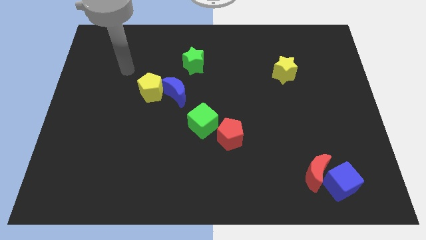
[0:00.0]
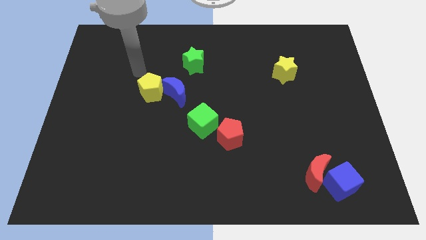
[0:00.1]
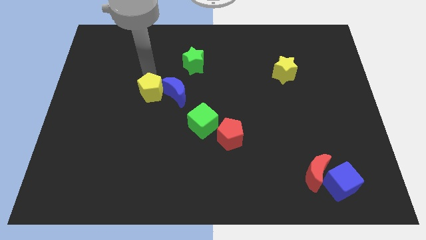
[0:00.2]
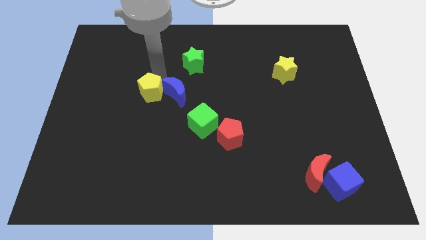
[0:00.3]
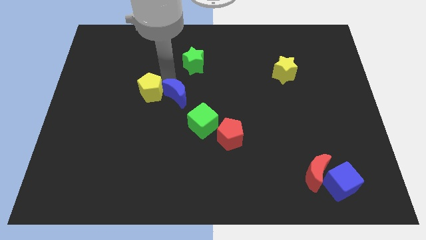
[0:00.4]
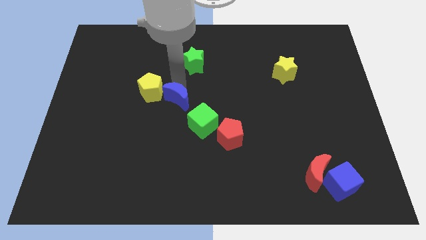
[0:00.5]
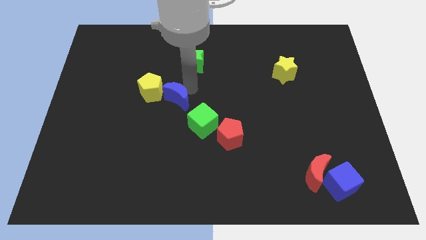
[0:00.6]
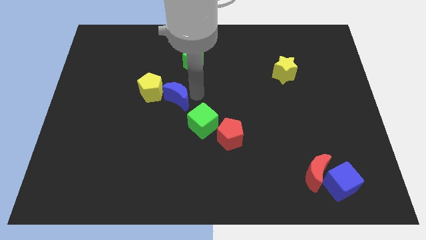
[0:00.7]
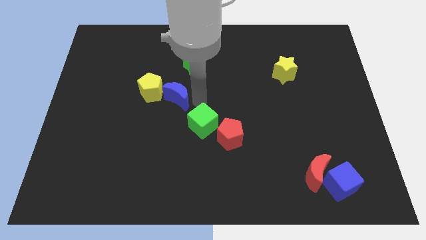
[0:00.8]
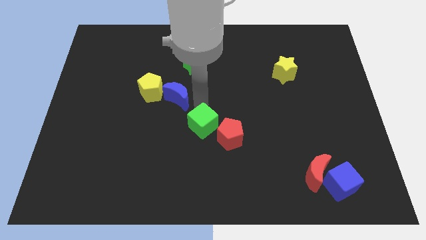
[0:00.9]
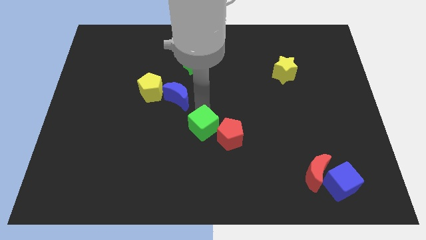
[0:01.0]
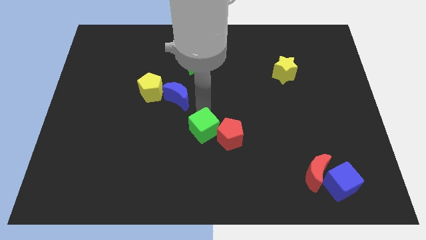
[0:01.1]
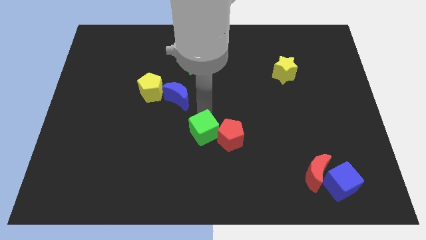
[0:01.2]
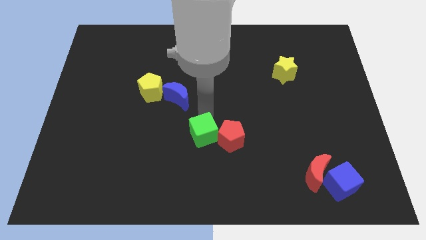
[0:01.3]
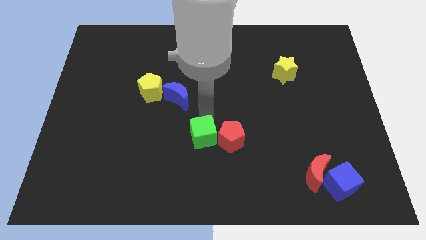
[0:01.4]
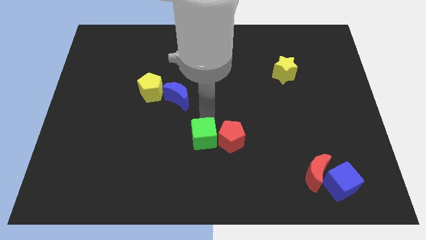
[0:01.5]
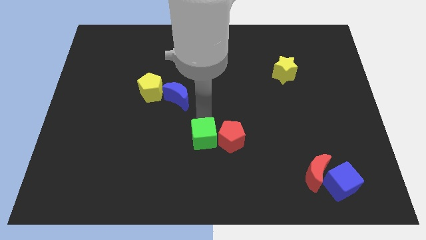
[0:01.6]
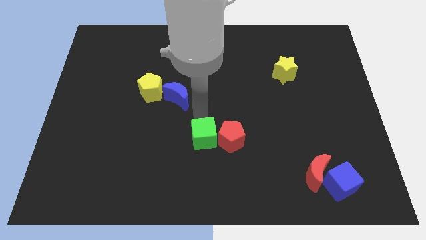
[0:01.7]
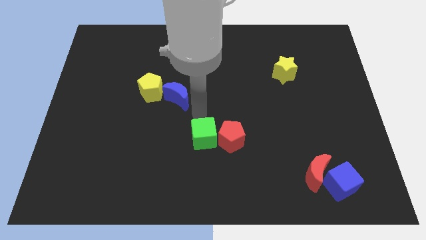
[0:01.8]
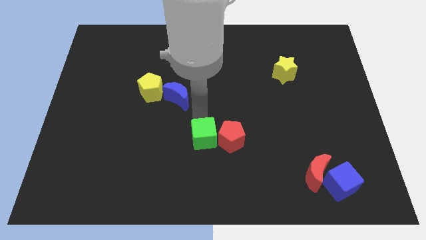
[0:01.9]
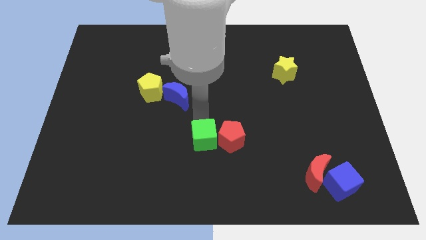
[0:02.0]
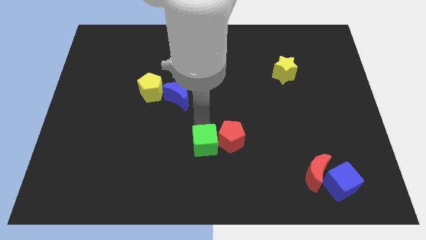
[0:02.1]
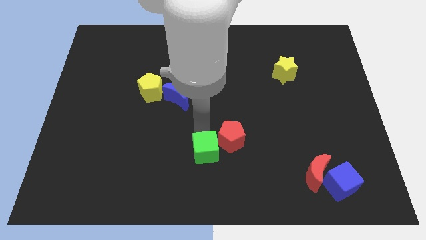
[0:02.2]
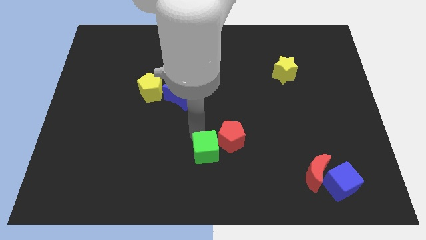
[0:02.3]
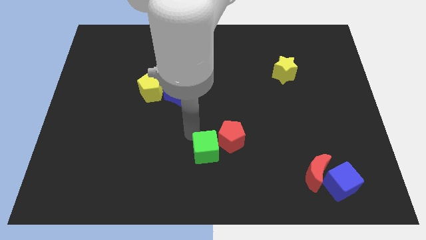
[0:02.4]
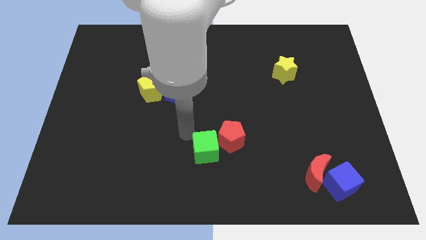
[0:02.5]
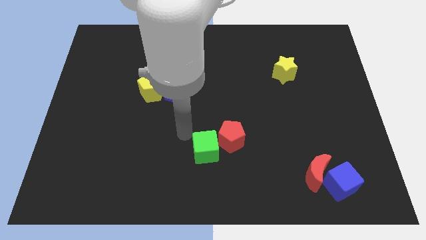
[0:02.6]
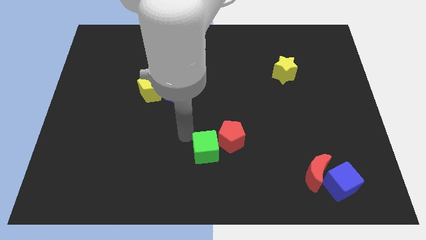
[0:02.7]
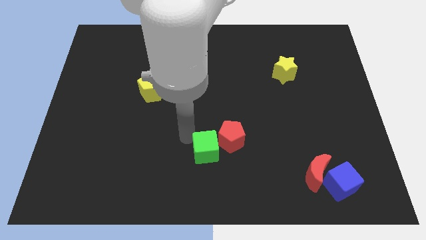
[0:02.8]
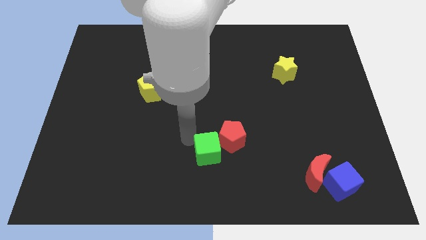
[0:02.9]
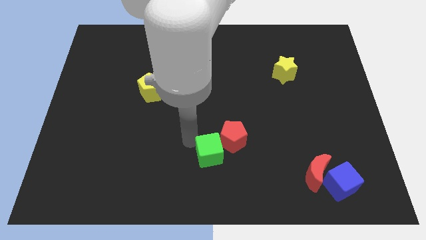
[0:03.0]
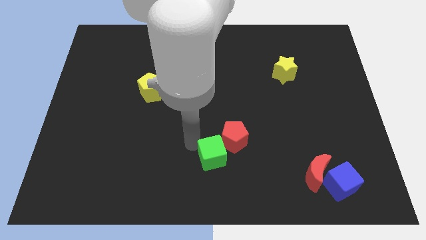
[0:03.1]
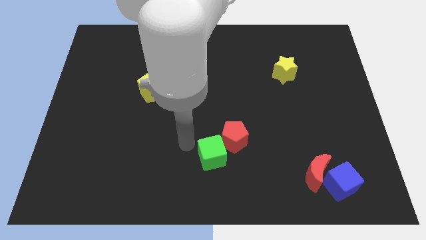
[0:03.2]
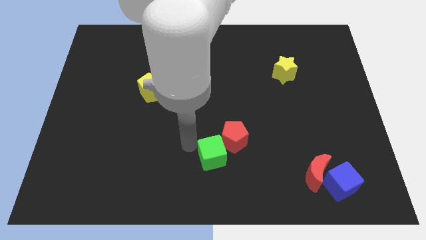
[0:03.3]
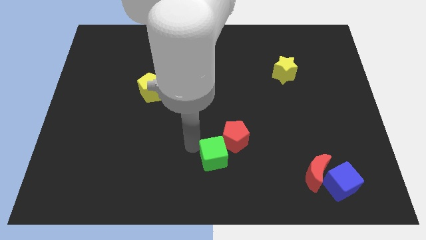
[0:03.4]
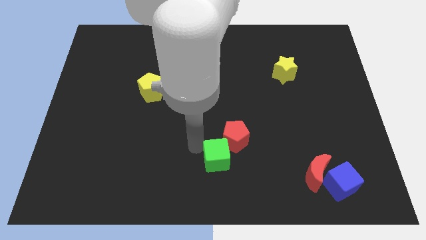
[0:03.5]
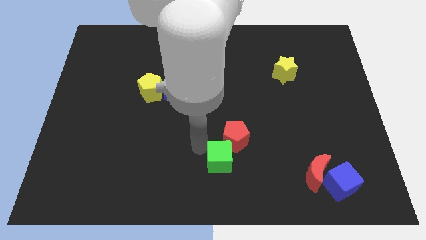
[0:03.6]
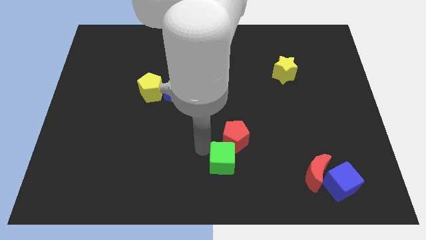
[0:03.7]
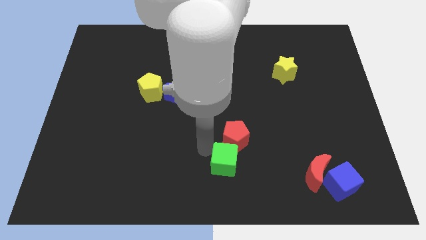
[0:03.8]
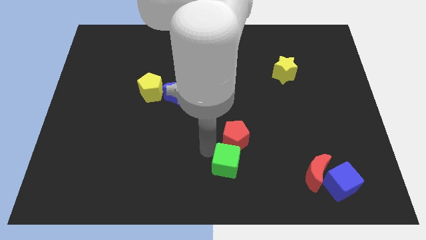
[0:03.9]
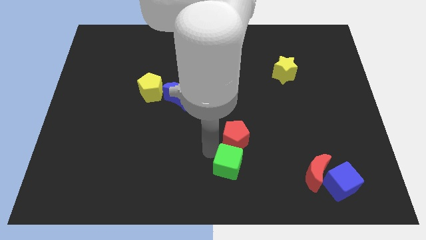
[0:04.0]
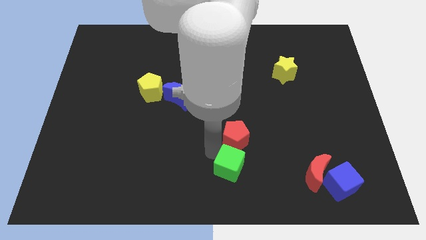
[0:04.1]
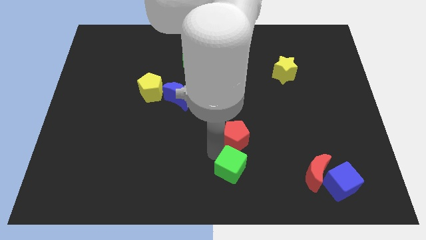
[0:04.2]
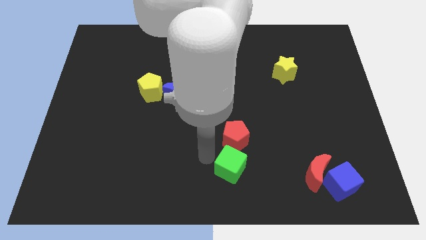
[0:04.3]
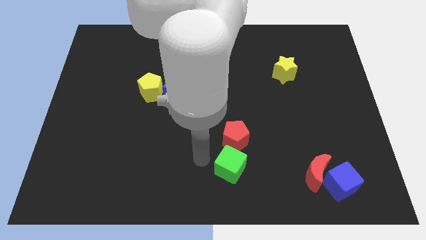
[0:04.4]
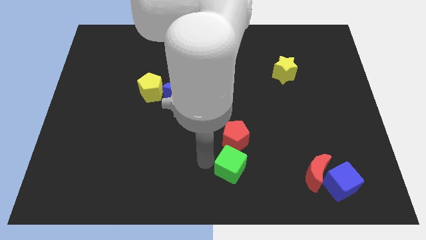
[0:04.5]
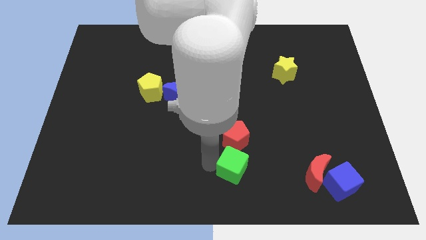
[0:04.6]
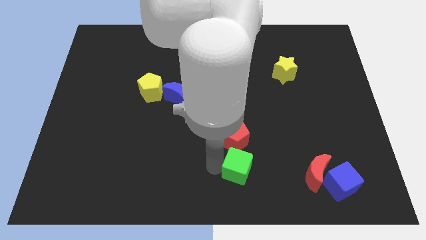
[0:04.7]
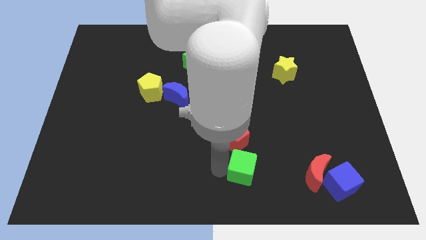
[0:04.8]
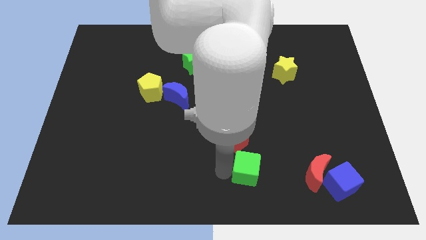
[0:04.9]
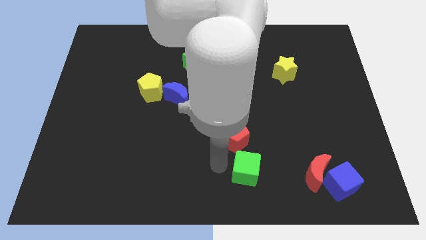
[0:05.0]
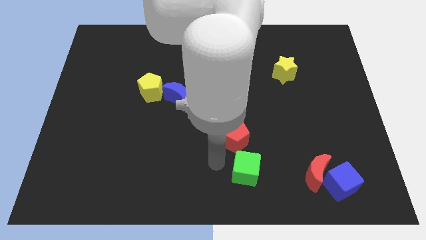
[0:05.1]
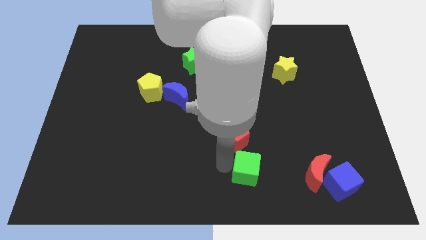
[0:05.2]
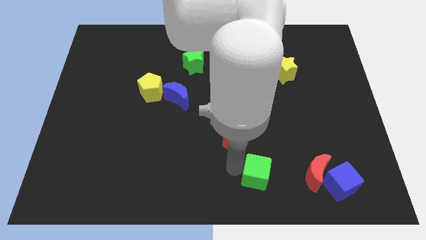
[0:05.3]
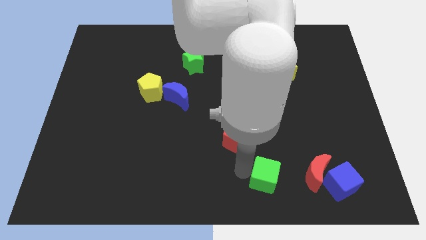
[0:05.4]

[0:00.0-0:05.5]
move the green cube just left of the blue cube

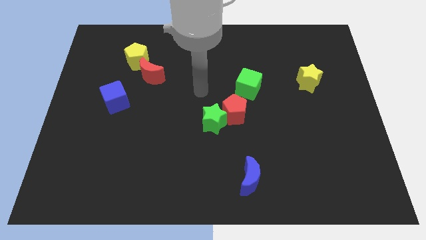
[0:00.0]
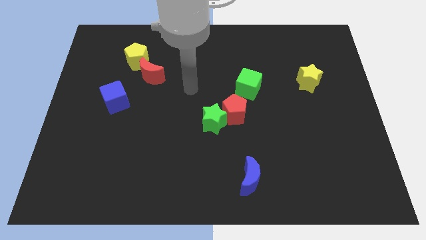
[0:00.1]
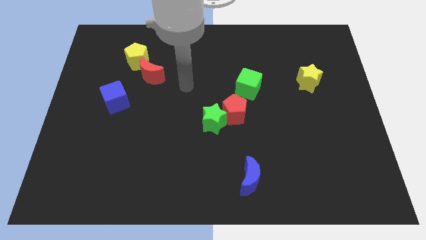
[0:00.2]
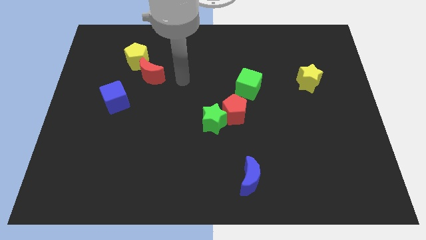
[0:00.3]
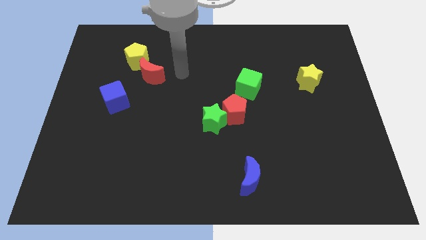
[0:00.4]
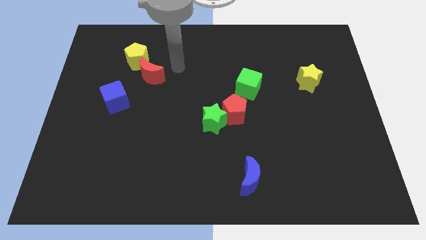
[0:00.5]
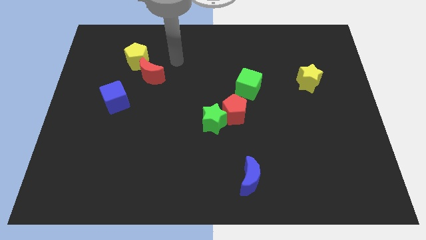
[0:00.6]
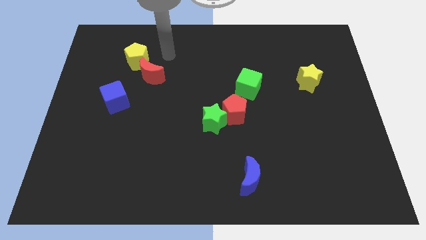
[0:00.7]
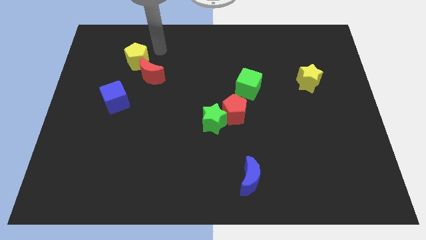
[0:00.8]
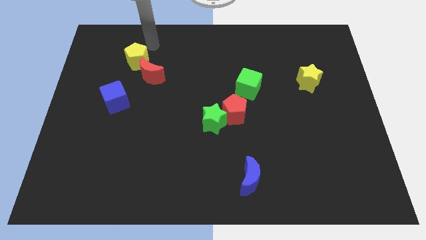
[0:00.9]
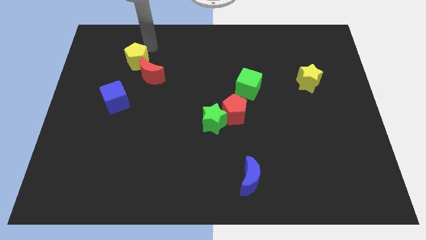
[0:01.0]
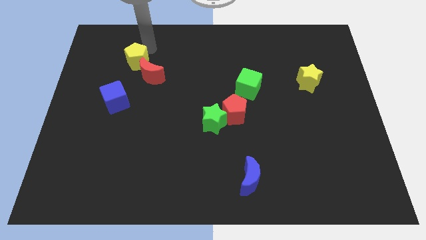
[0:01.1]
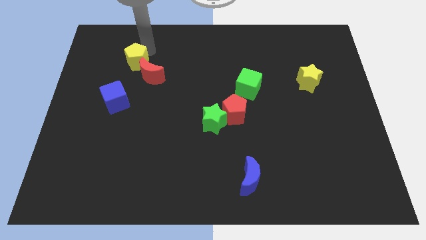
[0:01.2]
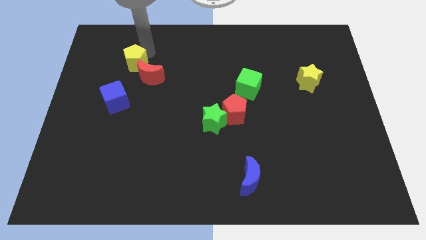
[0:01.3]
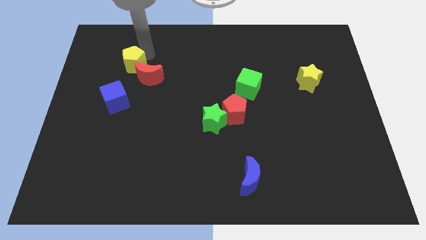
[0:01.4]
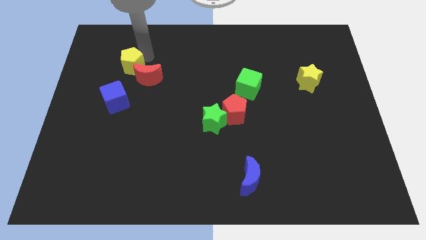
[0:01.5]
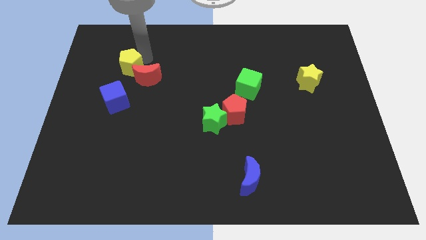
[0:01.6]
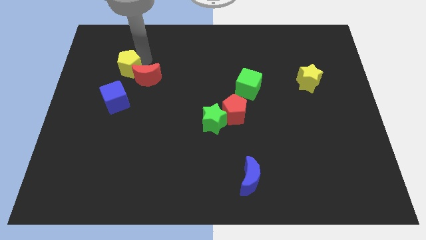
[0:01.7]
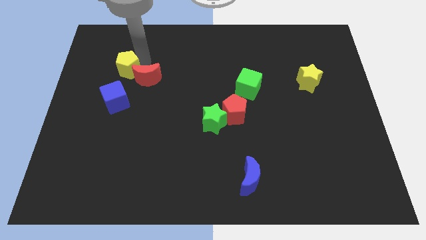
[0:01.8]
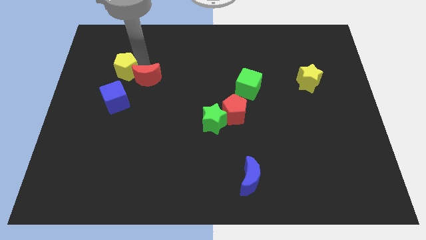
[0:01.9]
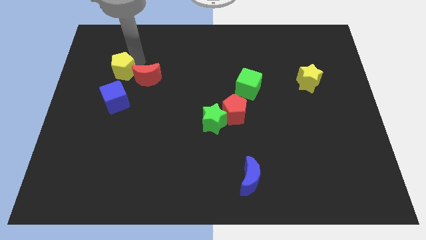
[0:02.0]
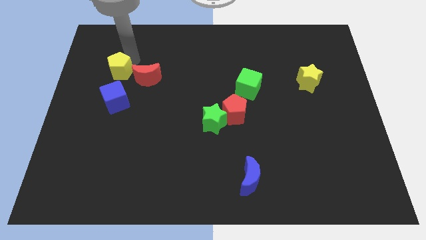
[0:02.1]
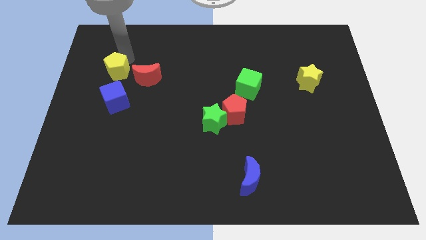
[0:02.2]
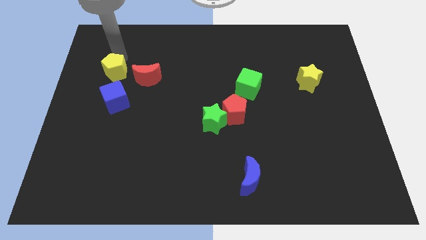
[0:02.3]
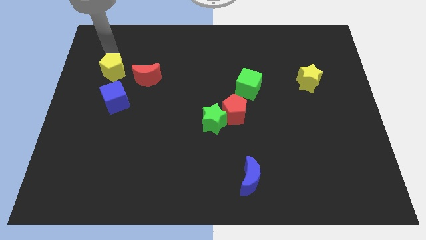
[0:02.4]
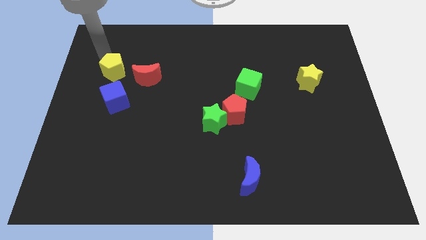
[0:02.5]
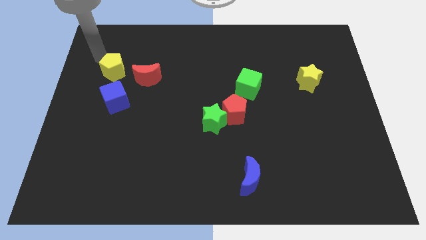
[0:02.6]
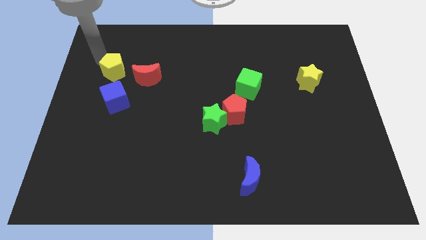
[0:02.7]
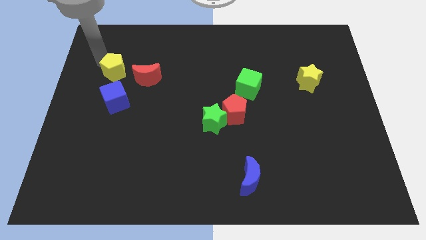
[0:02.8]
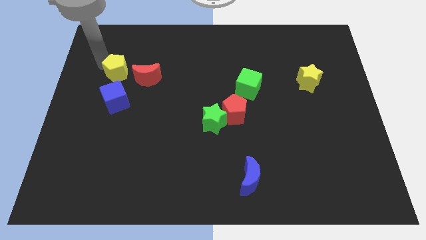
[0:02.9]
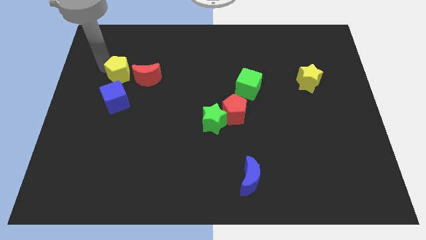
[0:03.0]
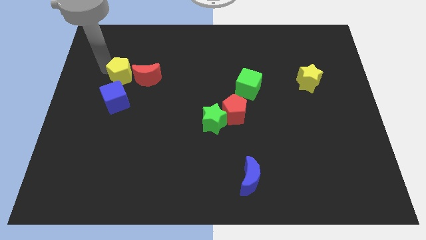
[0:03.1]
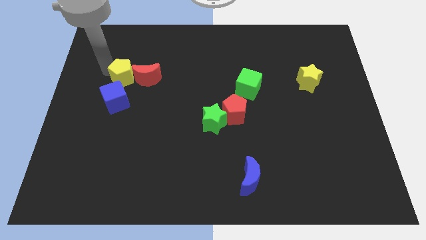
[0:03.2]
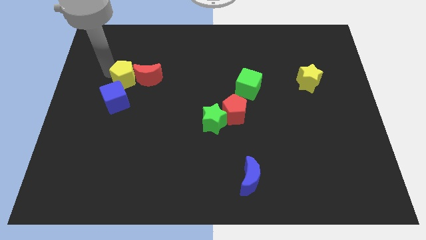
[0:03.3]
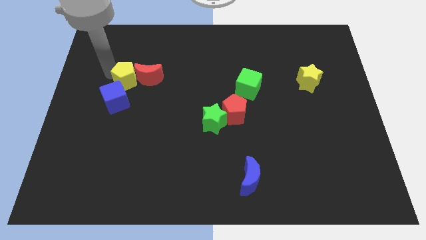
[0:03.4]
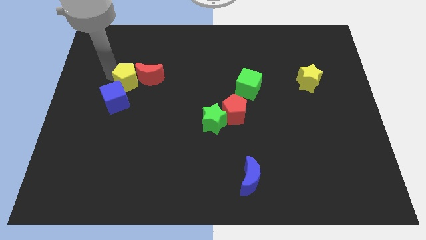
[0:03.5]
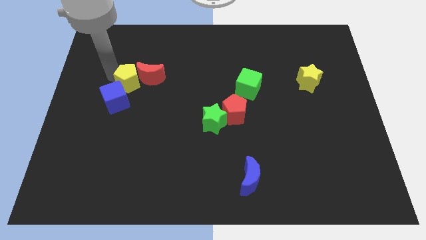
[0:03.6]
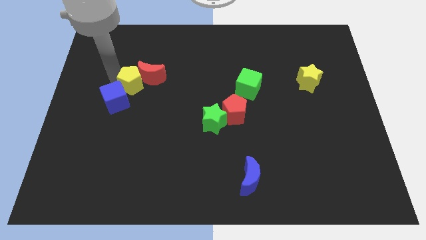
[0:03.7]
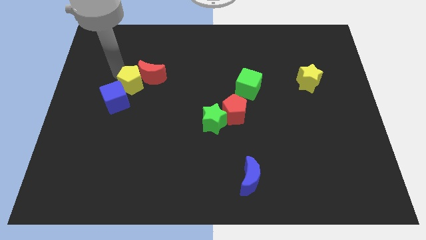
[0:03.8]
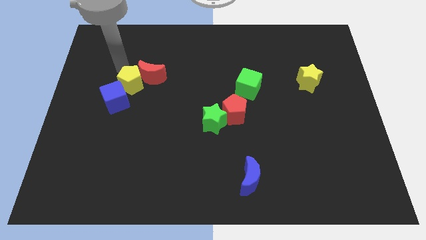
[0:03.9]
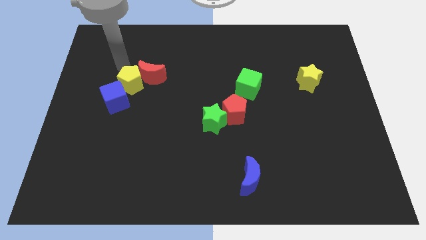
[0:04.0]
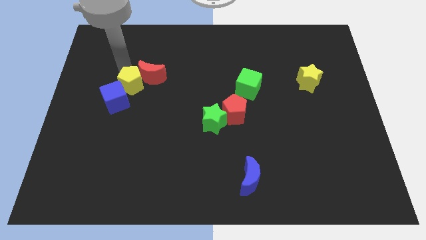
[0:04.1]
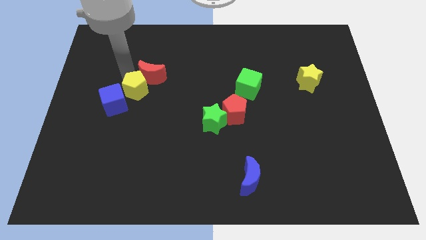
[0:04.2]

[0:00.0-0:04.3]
push the yellow pentagon to the bottom side of the red moon
